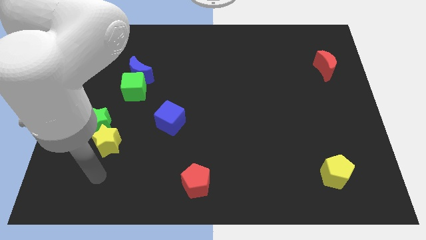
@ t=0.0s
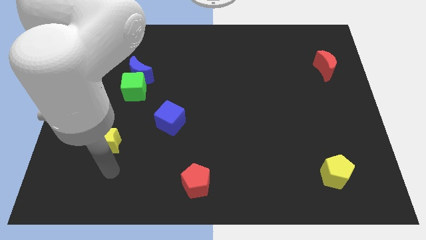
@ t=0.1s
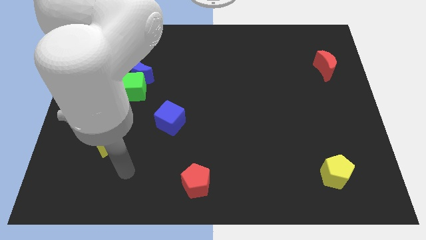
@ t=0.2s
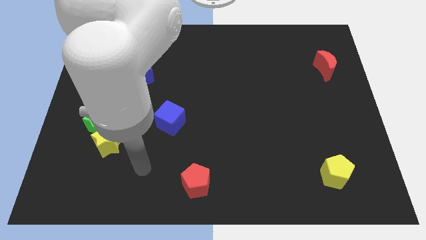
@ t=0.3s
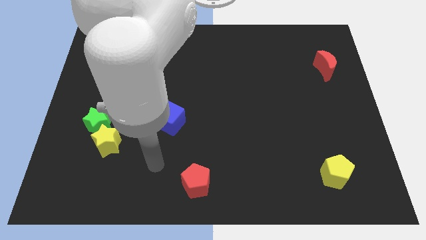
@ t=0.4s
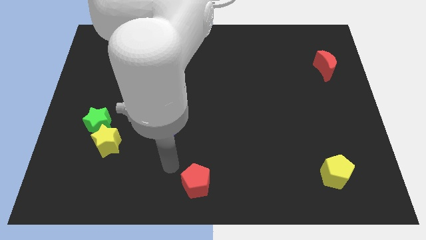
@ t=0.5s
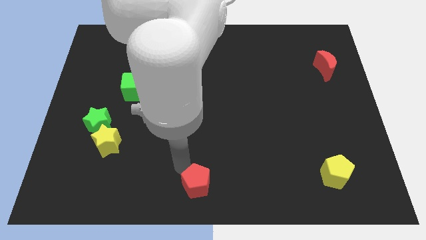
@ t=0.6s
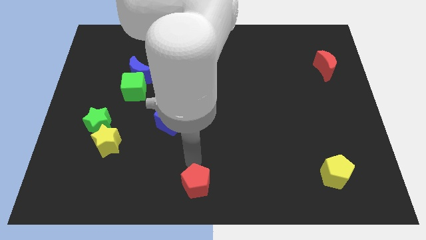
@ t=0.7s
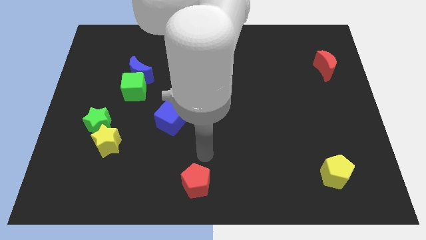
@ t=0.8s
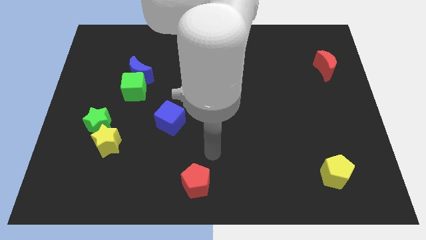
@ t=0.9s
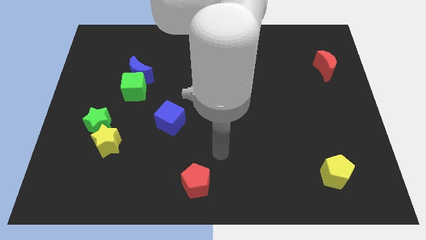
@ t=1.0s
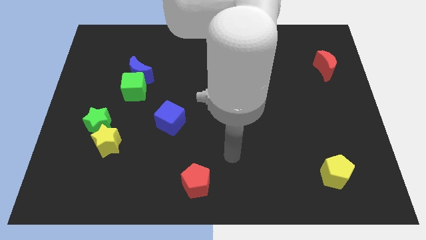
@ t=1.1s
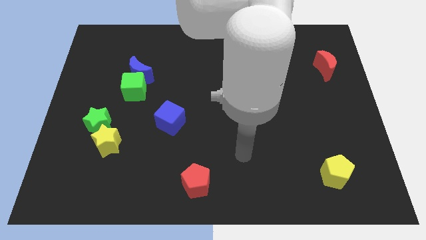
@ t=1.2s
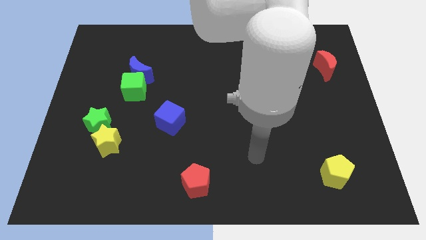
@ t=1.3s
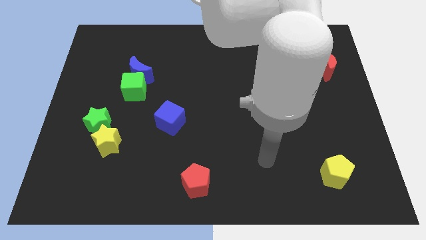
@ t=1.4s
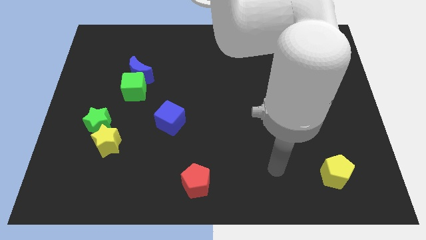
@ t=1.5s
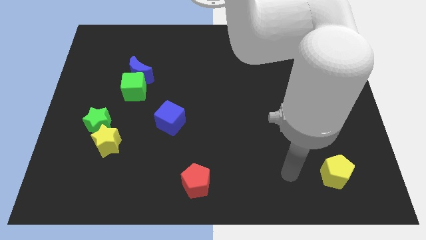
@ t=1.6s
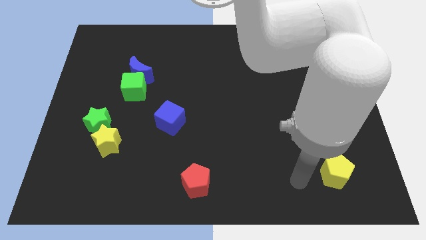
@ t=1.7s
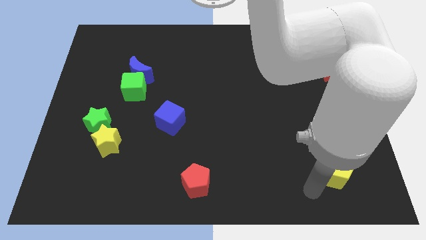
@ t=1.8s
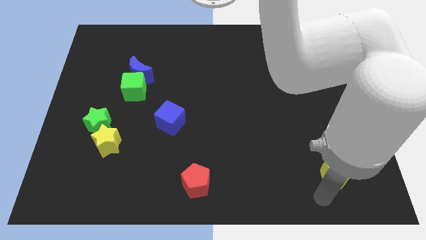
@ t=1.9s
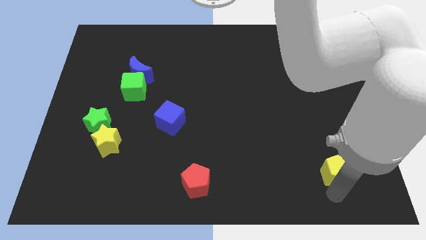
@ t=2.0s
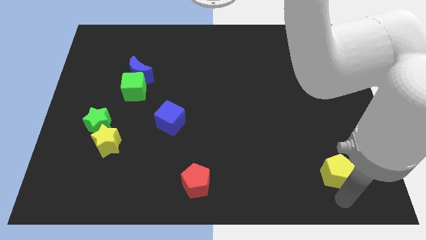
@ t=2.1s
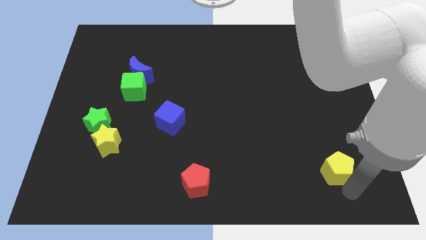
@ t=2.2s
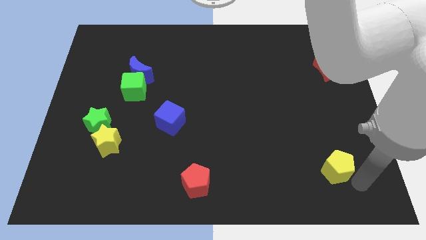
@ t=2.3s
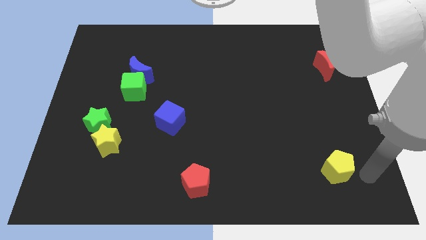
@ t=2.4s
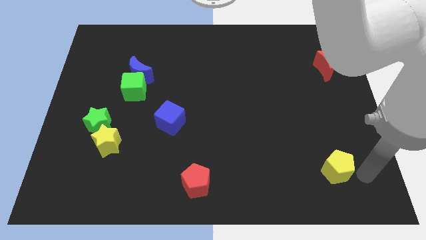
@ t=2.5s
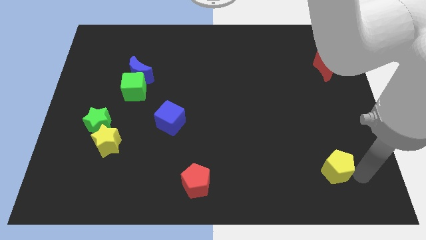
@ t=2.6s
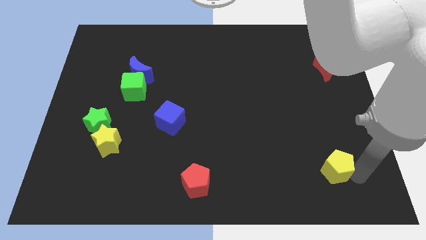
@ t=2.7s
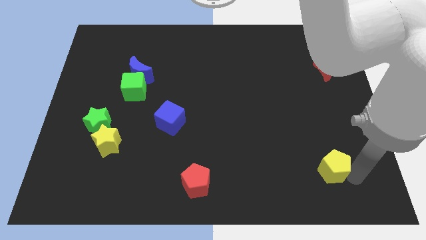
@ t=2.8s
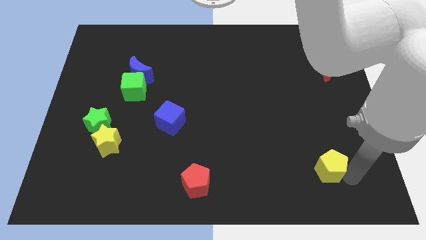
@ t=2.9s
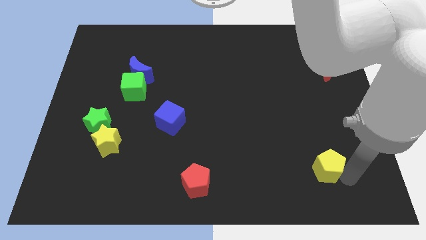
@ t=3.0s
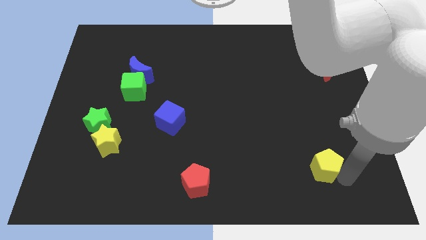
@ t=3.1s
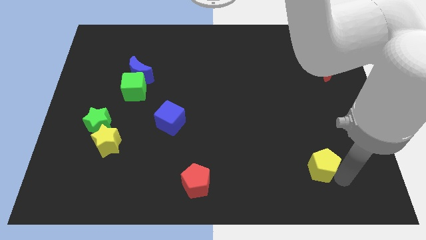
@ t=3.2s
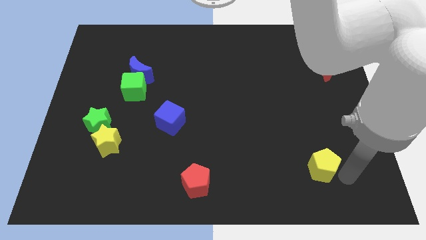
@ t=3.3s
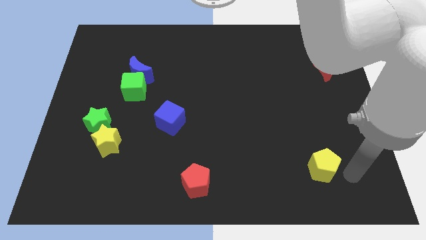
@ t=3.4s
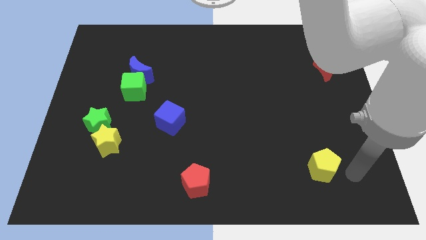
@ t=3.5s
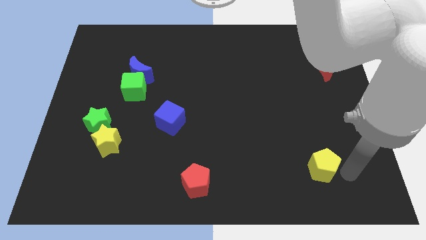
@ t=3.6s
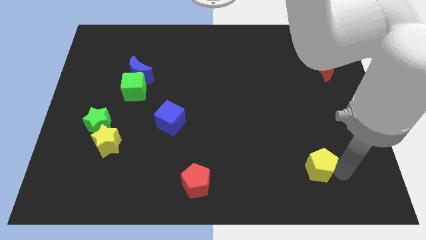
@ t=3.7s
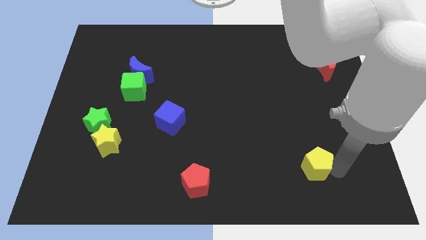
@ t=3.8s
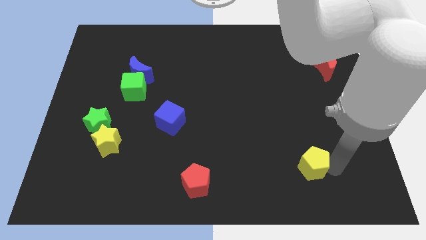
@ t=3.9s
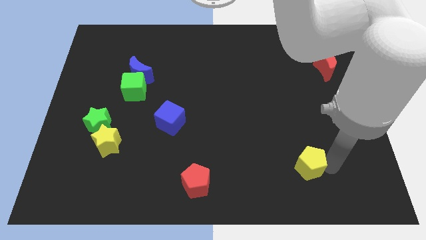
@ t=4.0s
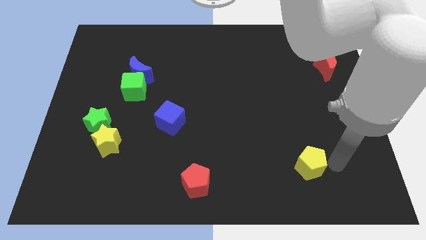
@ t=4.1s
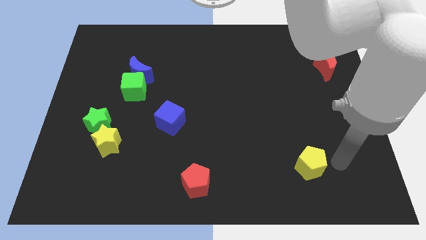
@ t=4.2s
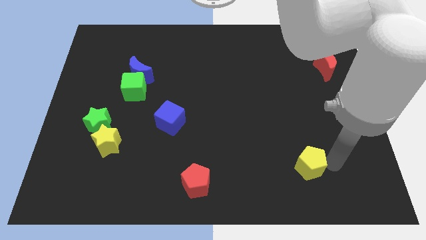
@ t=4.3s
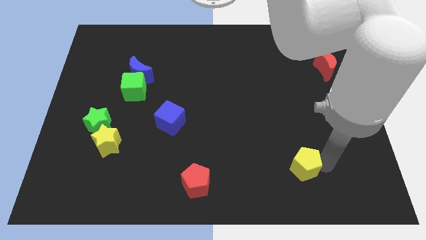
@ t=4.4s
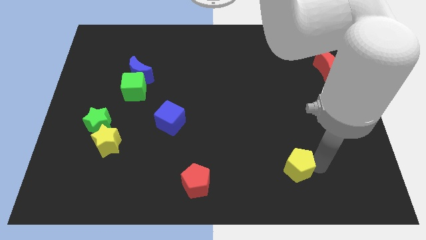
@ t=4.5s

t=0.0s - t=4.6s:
slide the yellow pentagon to the left slightly

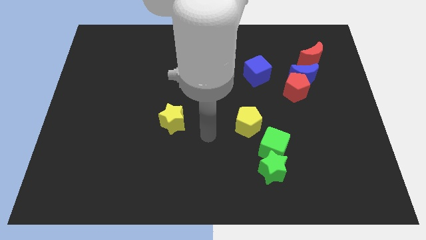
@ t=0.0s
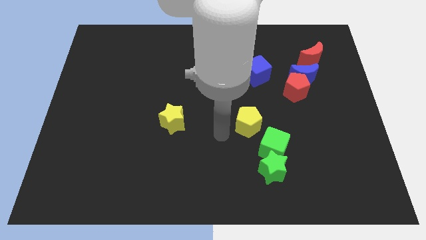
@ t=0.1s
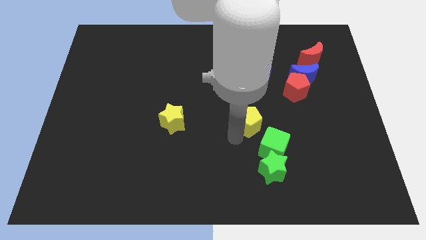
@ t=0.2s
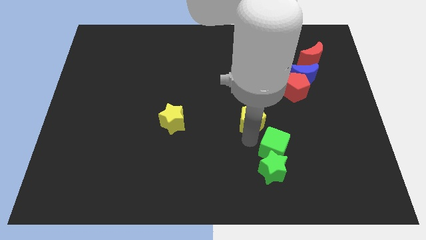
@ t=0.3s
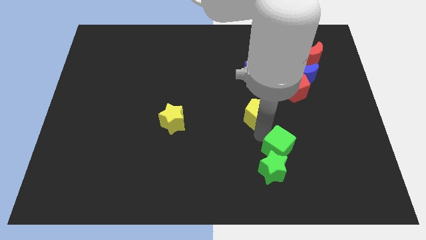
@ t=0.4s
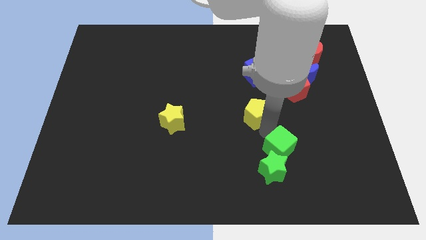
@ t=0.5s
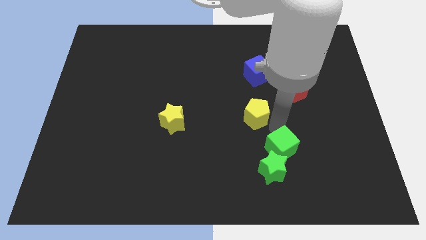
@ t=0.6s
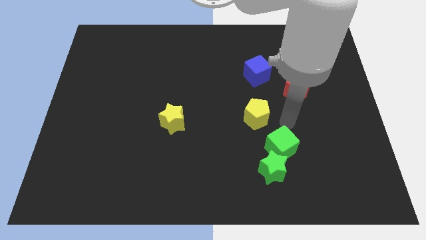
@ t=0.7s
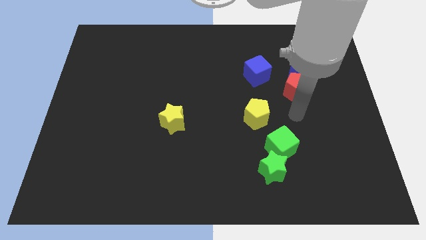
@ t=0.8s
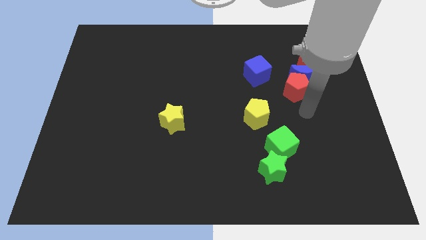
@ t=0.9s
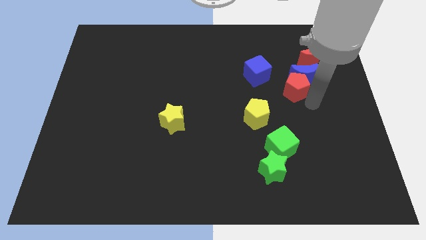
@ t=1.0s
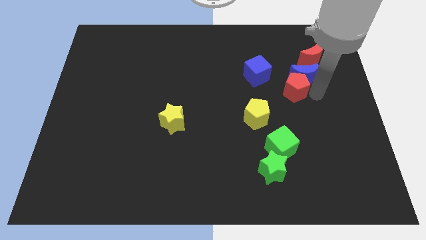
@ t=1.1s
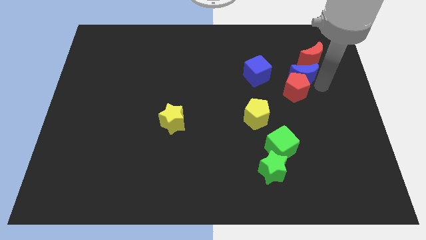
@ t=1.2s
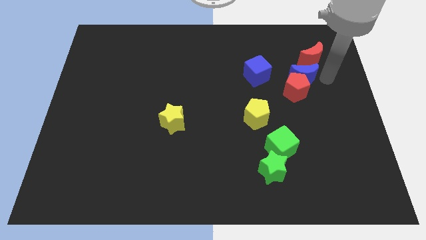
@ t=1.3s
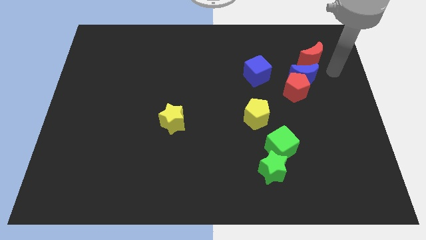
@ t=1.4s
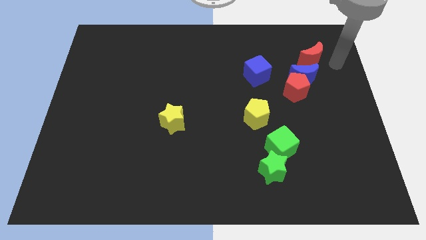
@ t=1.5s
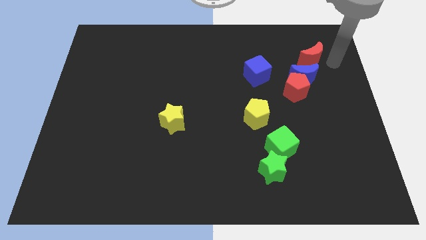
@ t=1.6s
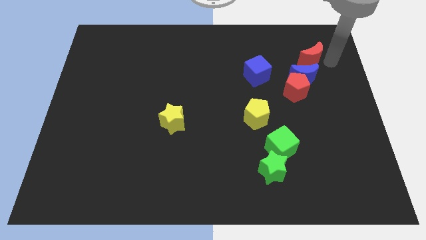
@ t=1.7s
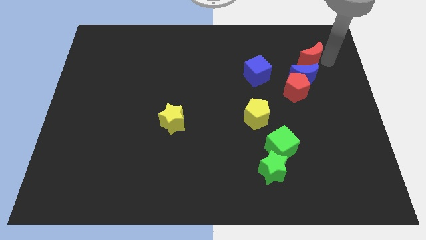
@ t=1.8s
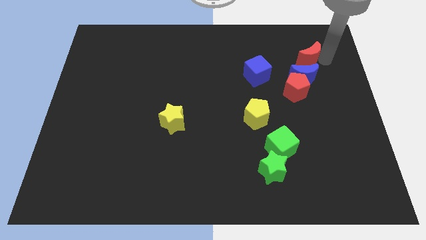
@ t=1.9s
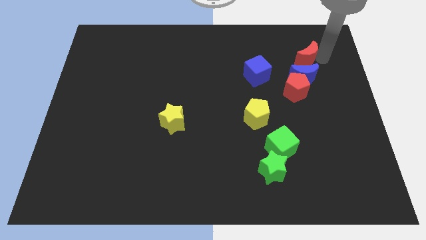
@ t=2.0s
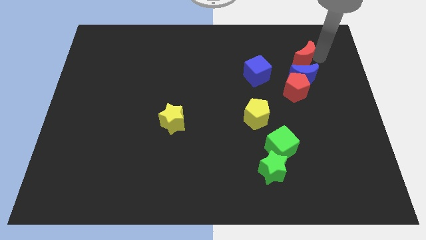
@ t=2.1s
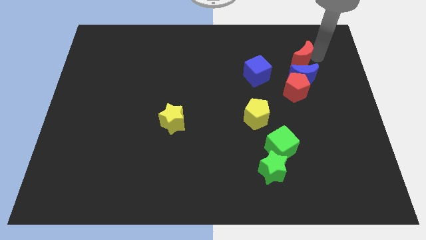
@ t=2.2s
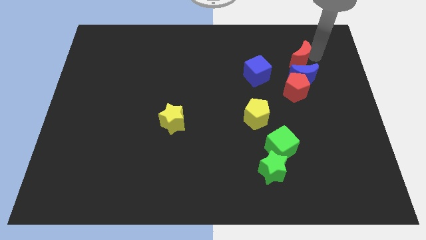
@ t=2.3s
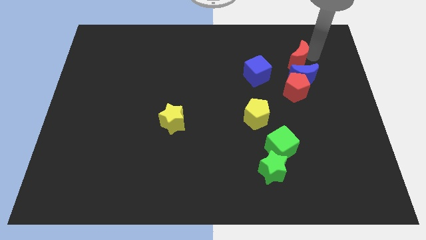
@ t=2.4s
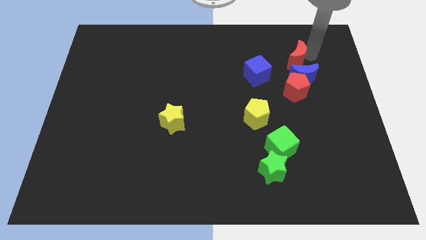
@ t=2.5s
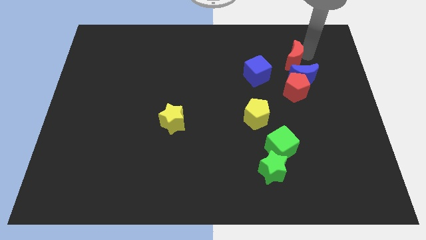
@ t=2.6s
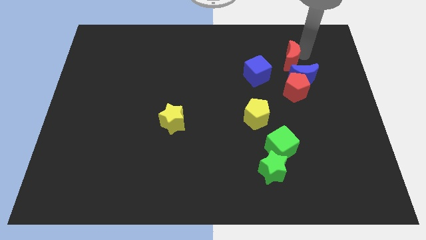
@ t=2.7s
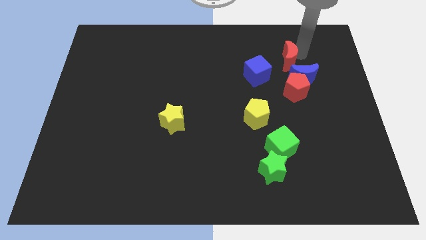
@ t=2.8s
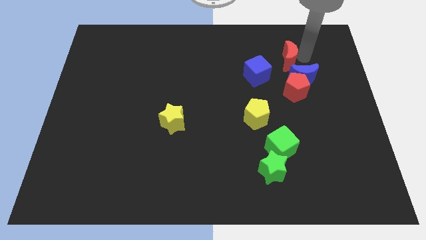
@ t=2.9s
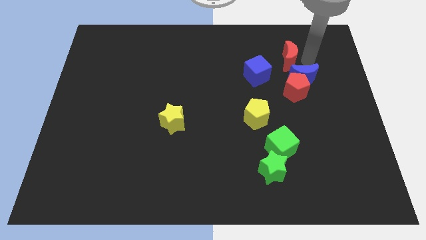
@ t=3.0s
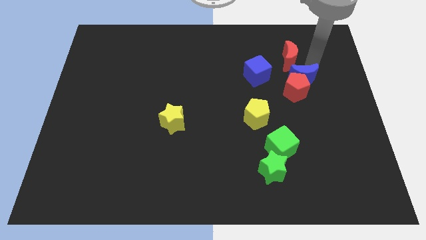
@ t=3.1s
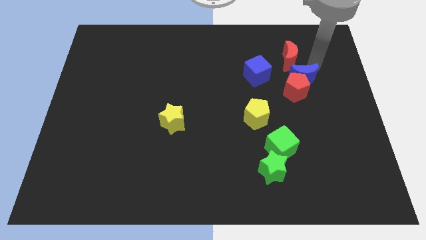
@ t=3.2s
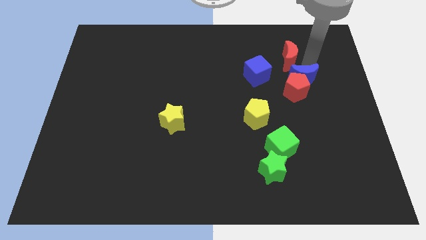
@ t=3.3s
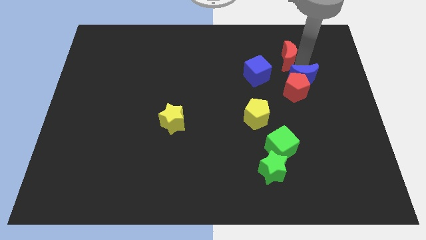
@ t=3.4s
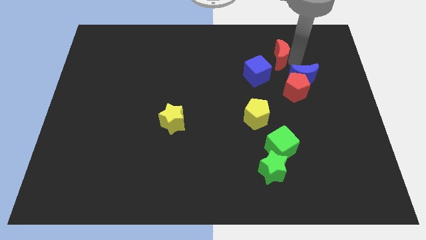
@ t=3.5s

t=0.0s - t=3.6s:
slide the red moon left a little
